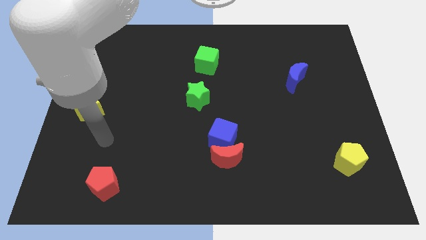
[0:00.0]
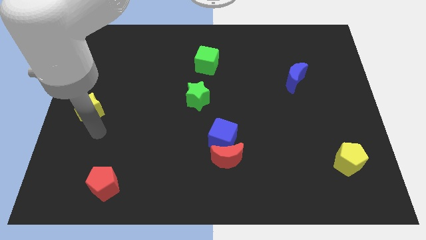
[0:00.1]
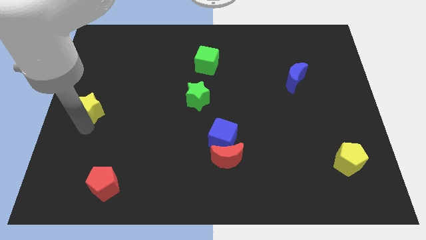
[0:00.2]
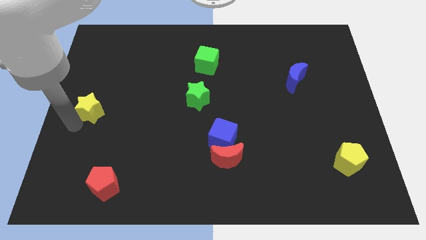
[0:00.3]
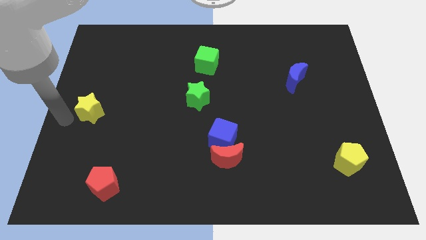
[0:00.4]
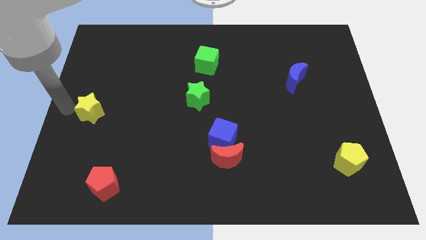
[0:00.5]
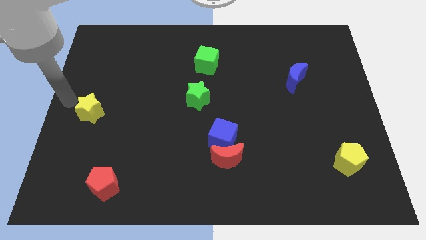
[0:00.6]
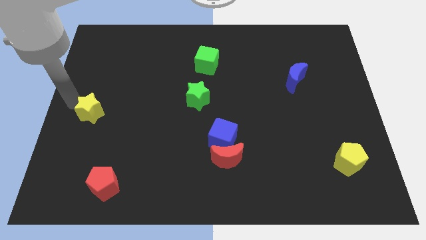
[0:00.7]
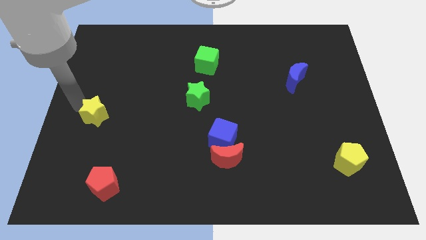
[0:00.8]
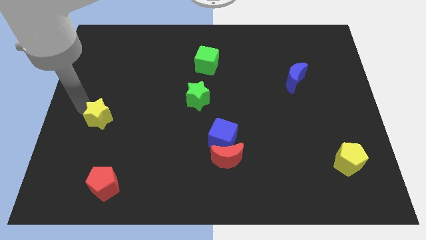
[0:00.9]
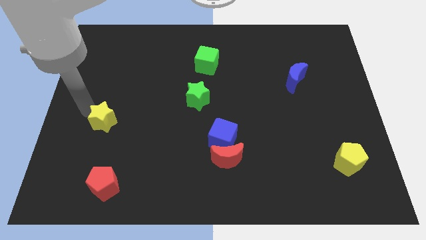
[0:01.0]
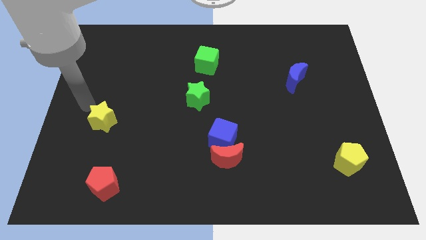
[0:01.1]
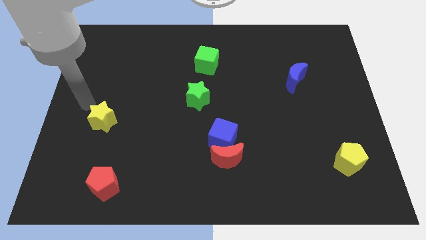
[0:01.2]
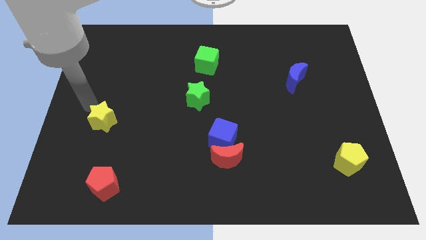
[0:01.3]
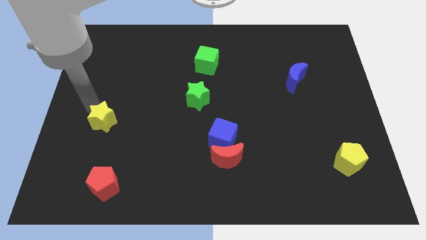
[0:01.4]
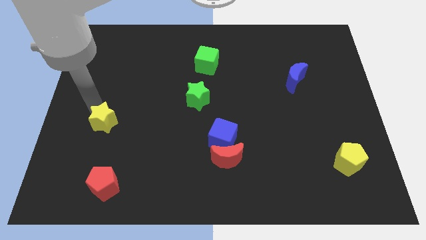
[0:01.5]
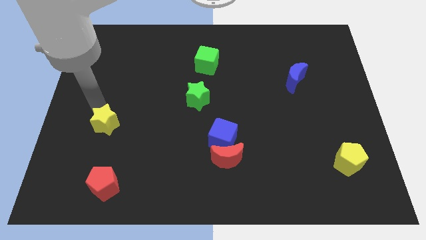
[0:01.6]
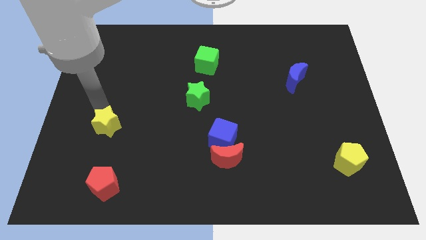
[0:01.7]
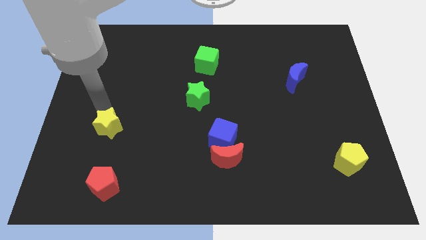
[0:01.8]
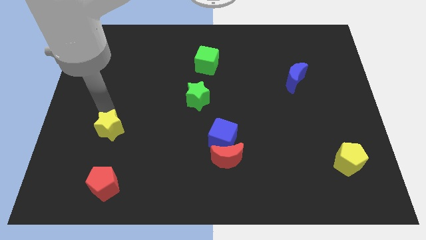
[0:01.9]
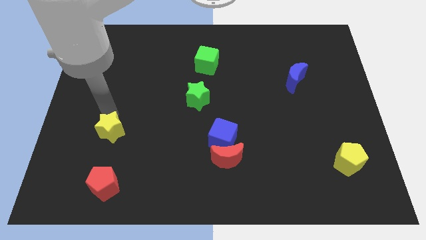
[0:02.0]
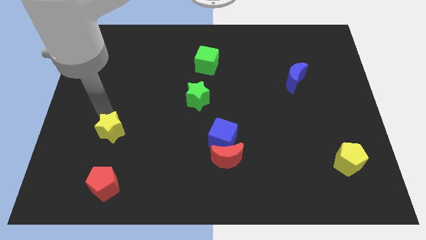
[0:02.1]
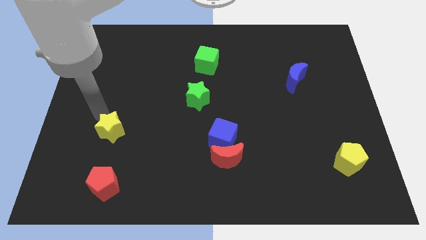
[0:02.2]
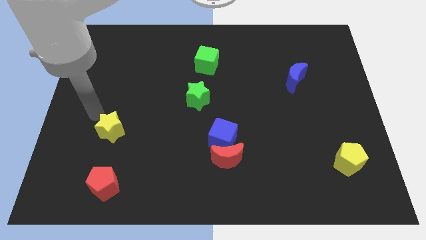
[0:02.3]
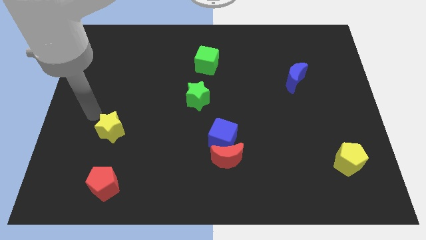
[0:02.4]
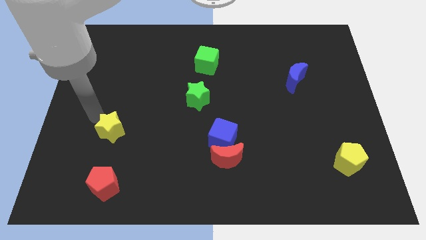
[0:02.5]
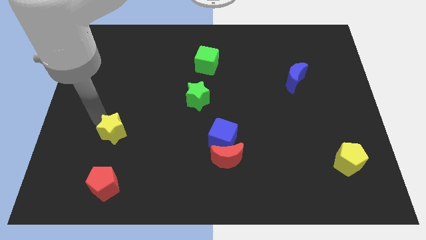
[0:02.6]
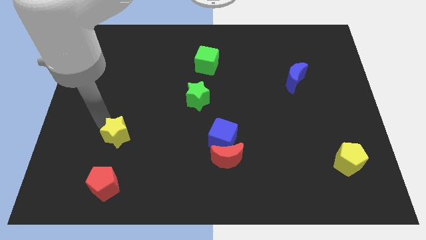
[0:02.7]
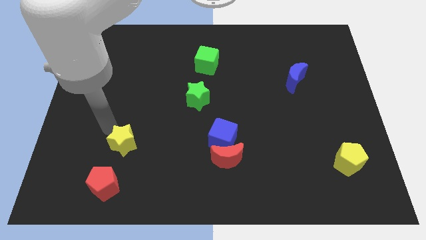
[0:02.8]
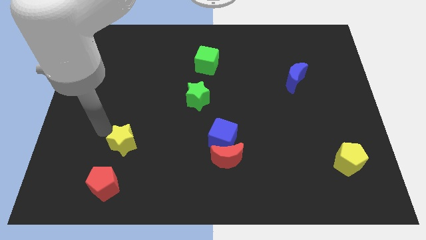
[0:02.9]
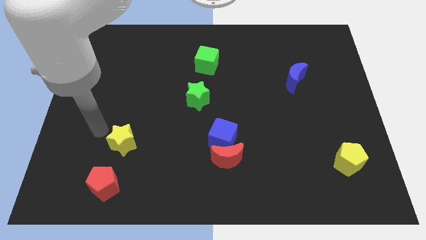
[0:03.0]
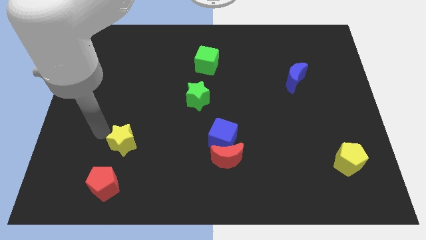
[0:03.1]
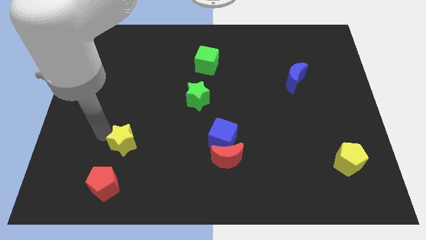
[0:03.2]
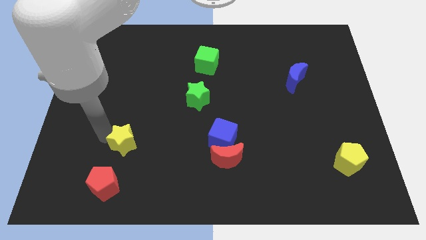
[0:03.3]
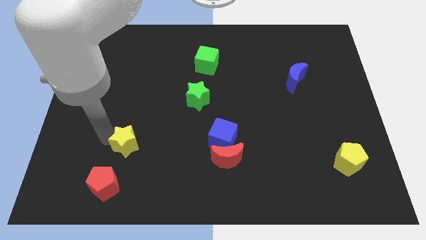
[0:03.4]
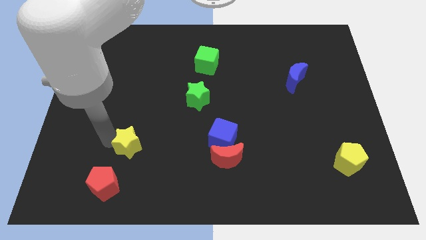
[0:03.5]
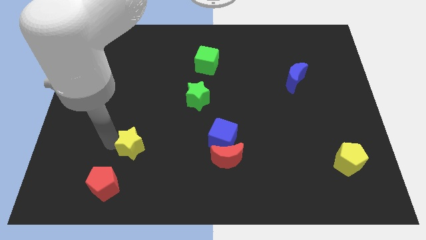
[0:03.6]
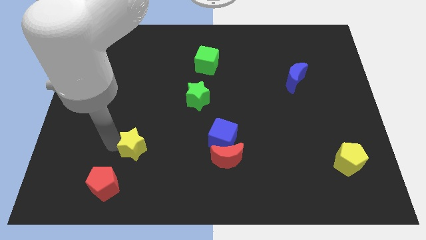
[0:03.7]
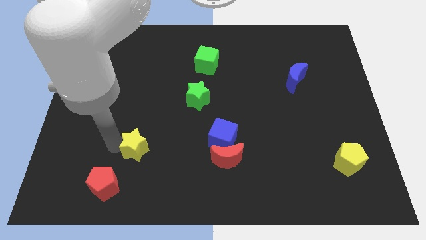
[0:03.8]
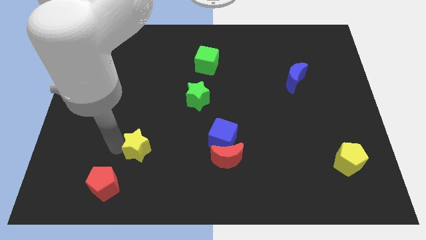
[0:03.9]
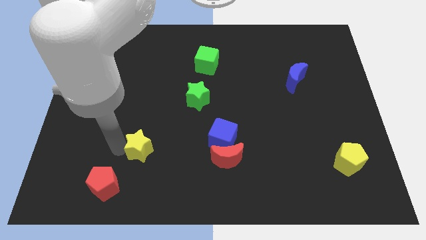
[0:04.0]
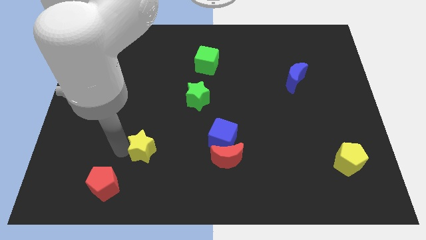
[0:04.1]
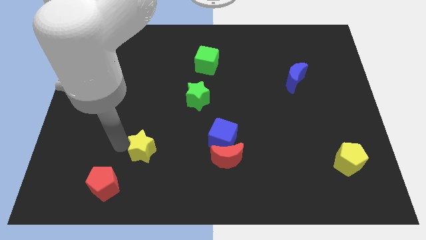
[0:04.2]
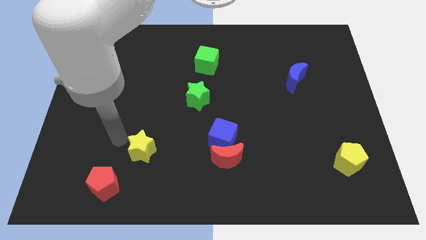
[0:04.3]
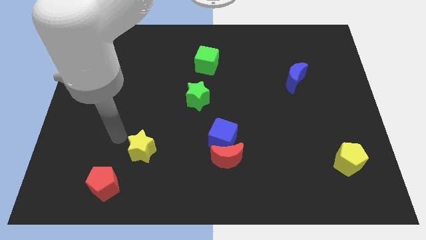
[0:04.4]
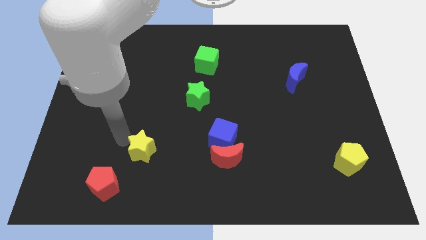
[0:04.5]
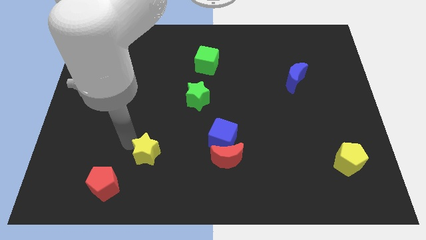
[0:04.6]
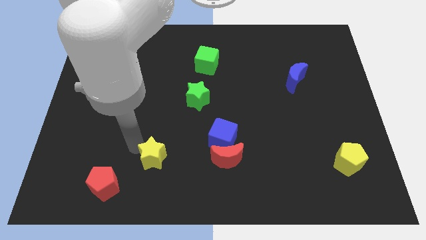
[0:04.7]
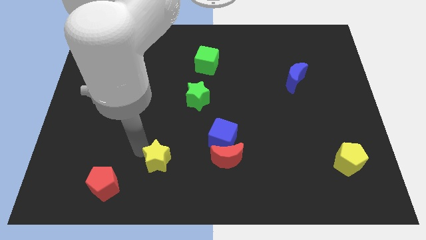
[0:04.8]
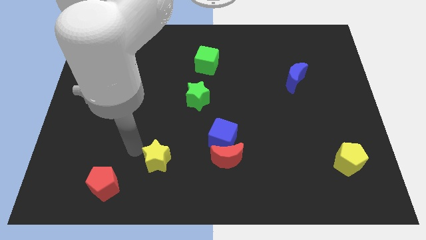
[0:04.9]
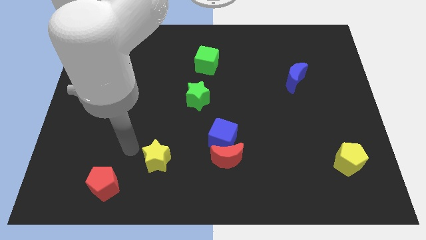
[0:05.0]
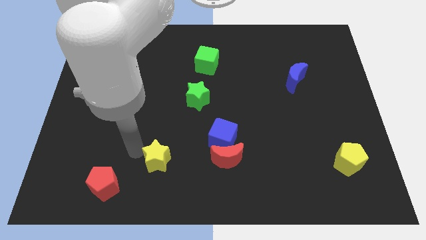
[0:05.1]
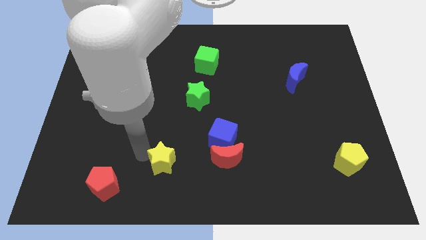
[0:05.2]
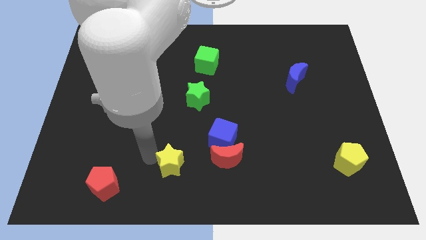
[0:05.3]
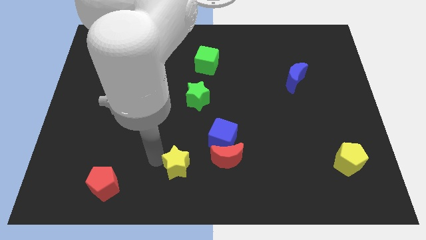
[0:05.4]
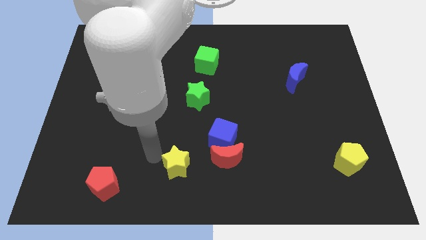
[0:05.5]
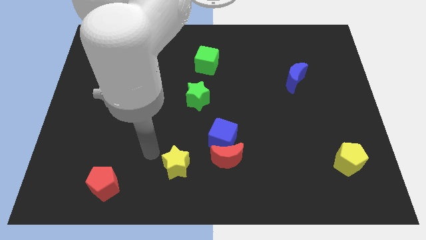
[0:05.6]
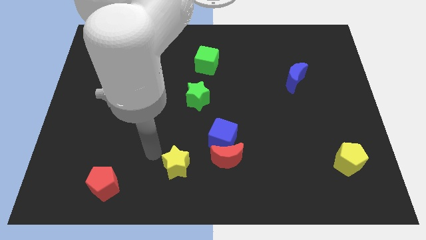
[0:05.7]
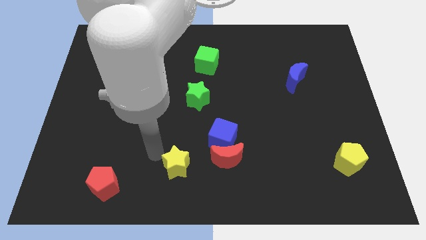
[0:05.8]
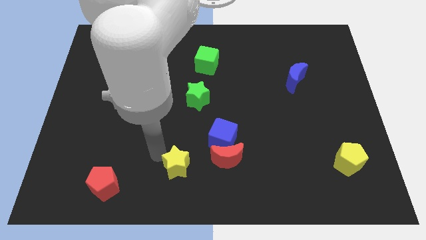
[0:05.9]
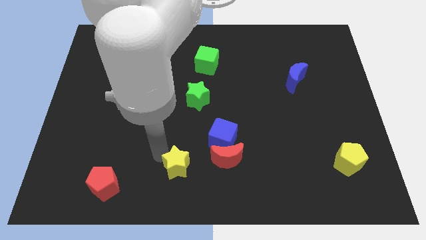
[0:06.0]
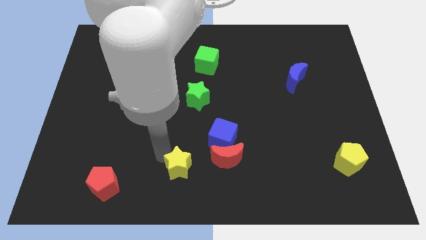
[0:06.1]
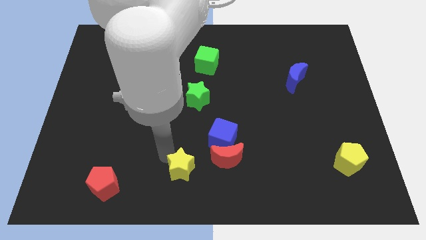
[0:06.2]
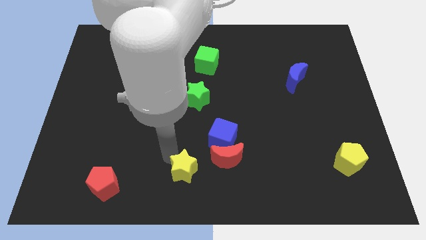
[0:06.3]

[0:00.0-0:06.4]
put the yellow star to the bottom left of the red moon

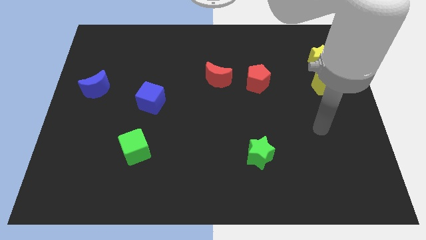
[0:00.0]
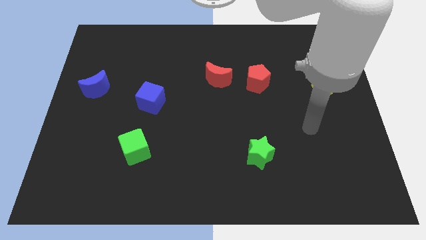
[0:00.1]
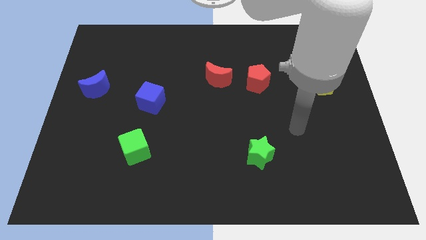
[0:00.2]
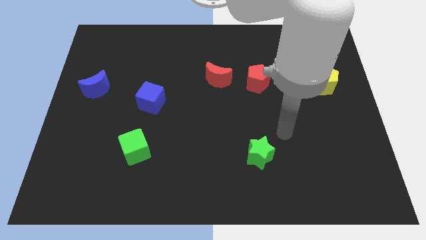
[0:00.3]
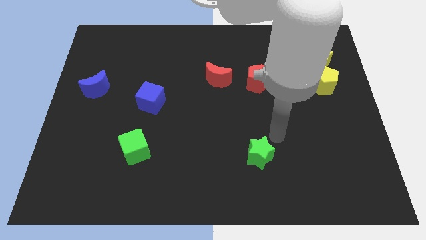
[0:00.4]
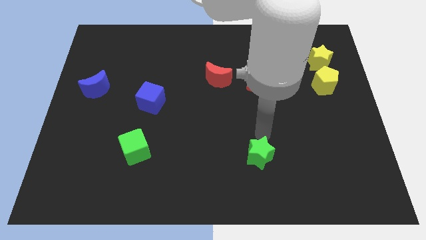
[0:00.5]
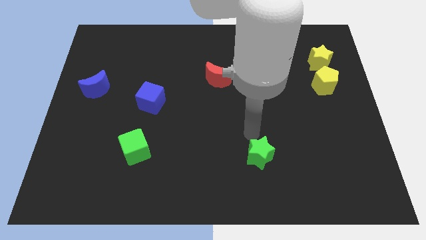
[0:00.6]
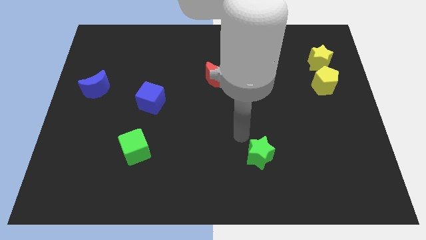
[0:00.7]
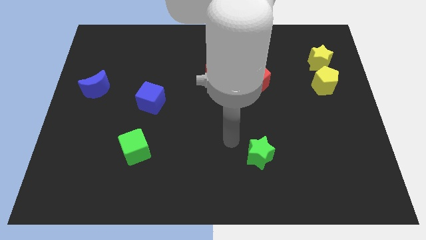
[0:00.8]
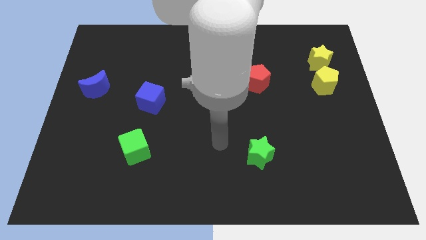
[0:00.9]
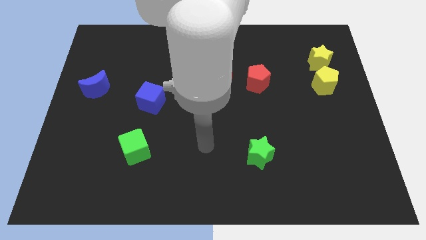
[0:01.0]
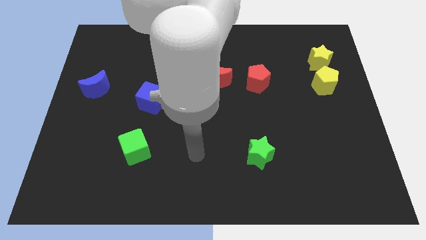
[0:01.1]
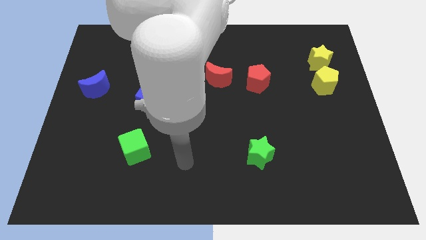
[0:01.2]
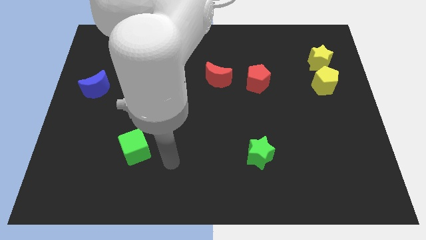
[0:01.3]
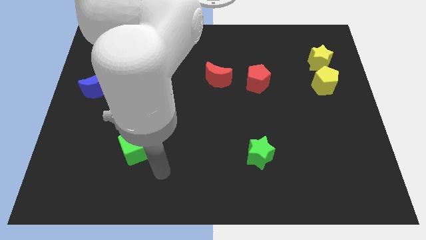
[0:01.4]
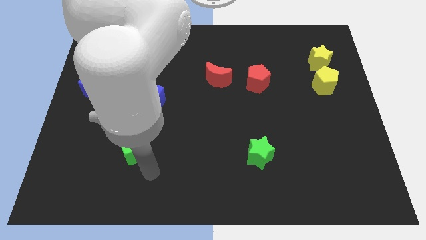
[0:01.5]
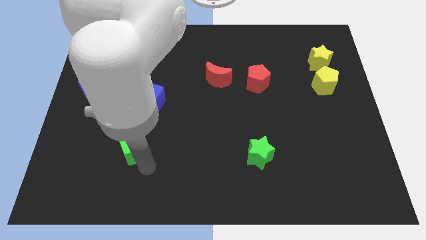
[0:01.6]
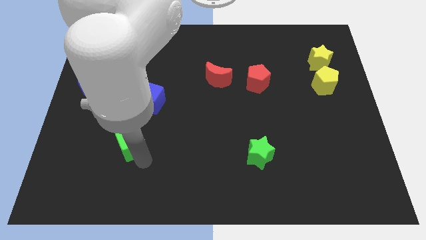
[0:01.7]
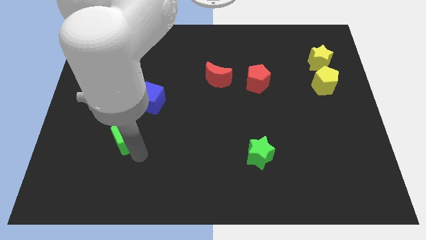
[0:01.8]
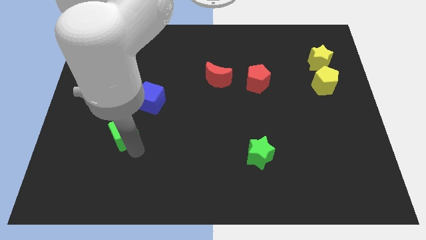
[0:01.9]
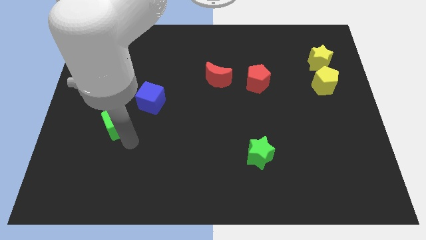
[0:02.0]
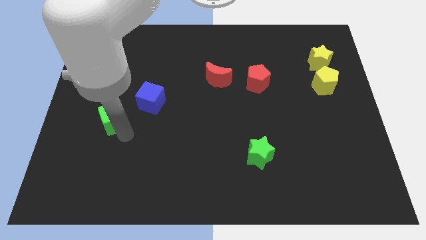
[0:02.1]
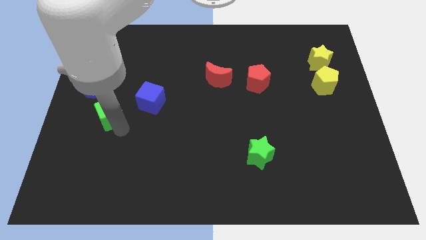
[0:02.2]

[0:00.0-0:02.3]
slide the green cube to the left of the blue cube
